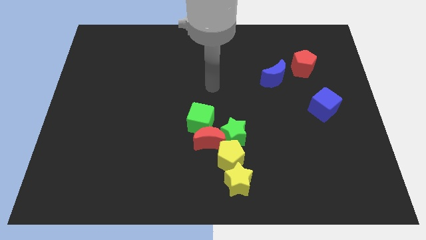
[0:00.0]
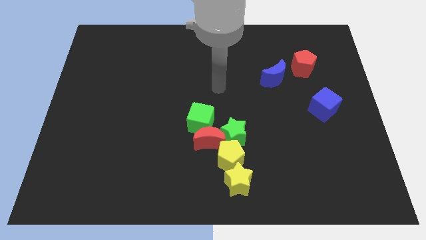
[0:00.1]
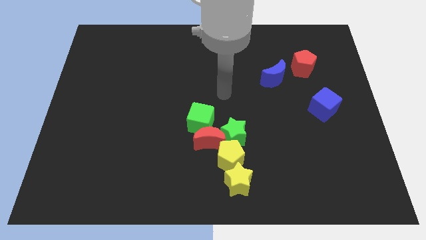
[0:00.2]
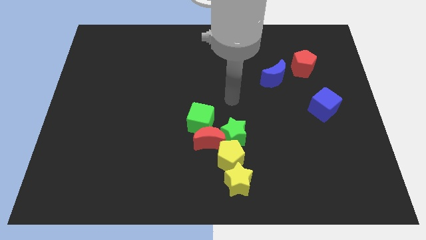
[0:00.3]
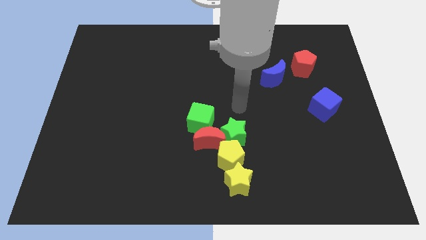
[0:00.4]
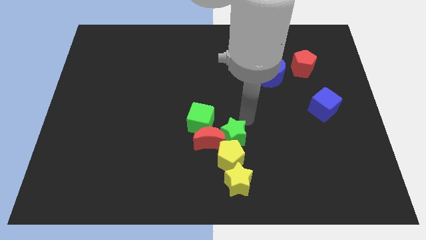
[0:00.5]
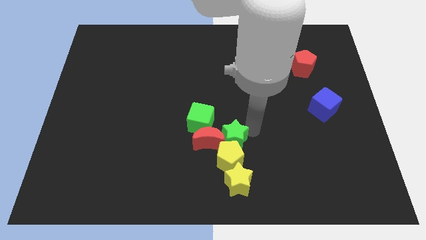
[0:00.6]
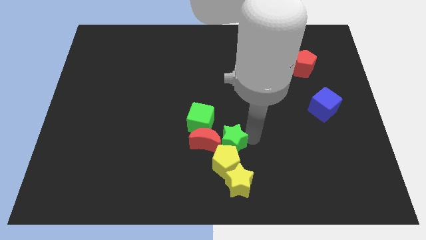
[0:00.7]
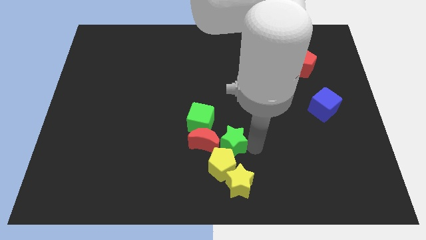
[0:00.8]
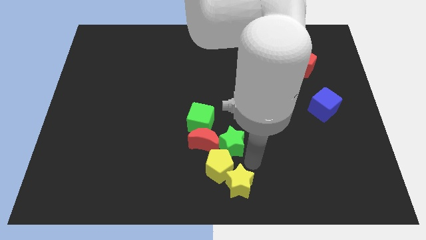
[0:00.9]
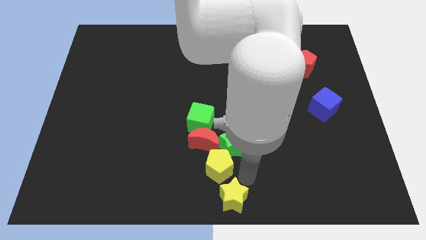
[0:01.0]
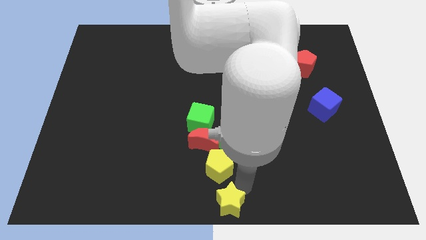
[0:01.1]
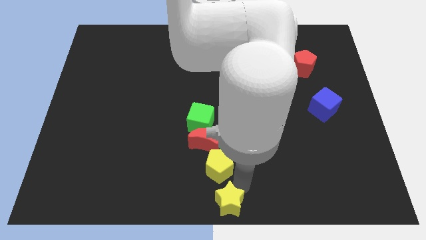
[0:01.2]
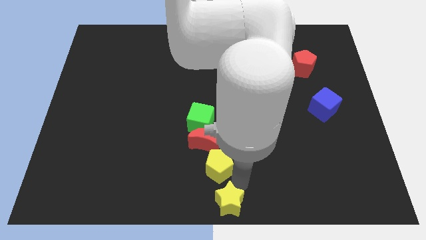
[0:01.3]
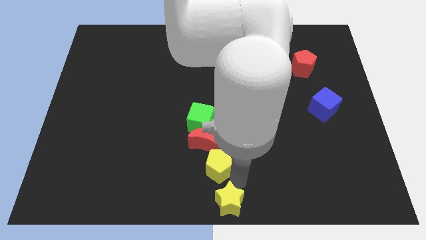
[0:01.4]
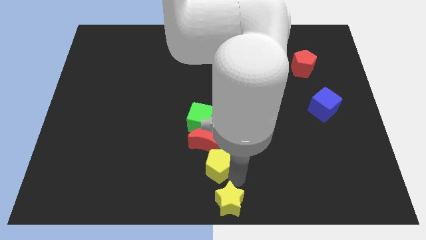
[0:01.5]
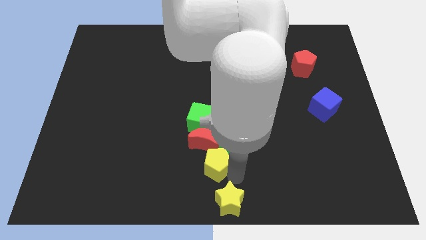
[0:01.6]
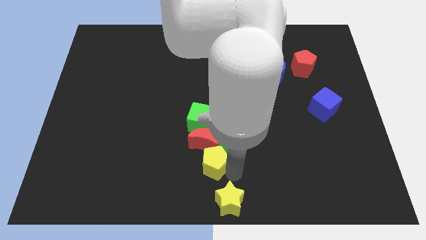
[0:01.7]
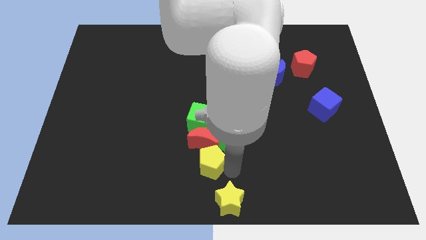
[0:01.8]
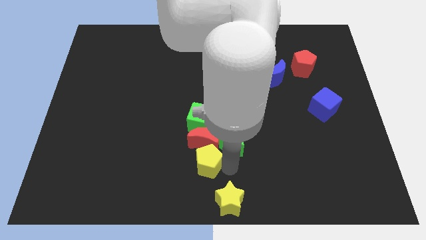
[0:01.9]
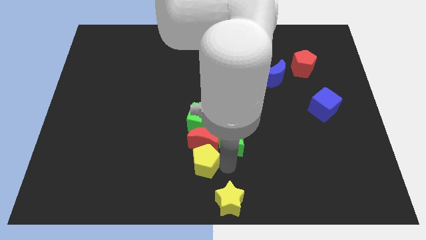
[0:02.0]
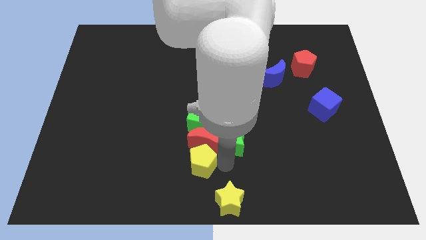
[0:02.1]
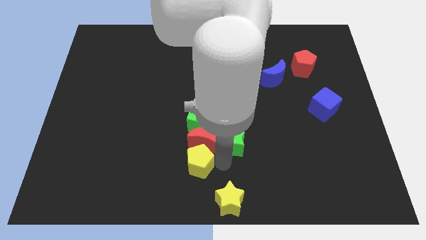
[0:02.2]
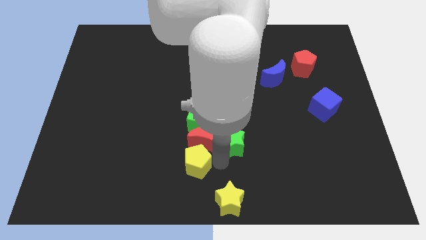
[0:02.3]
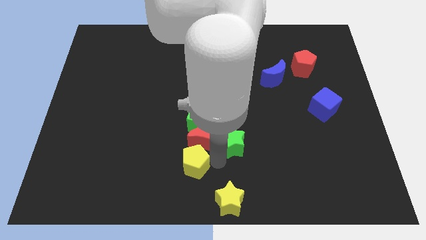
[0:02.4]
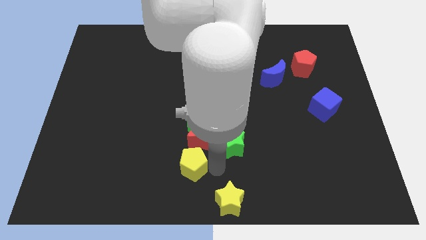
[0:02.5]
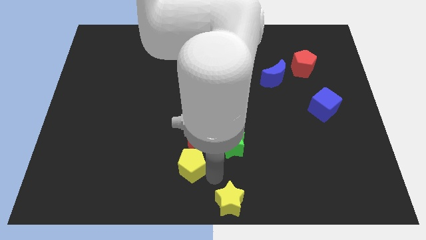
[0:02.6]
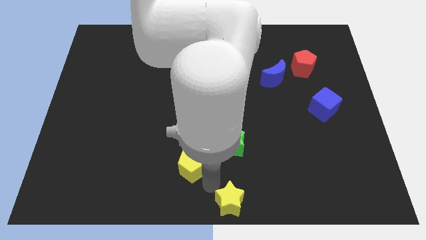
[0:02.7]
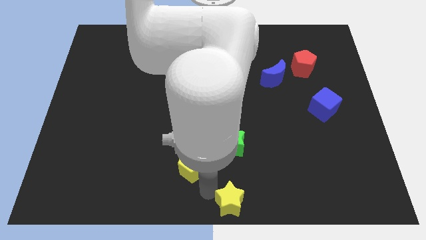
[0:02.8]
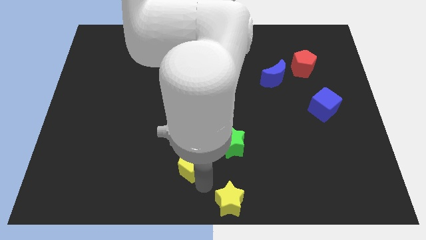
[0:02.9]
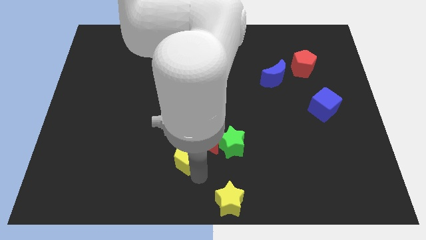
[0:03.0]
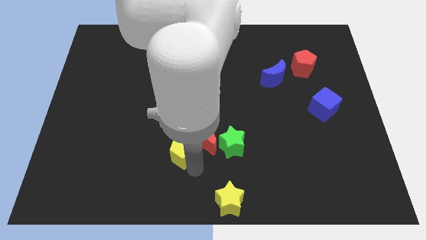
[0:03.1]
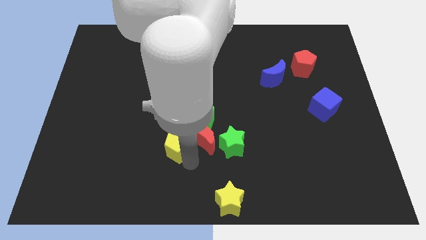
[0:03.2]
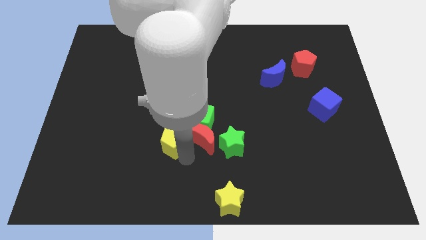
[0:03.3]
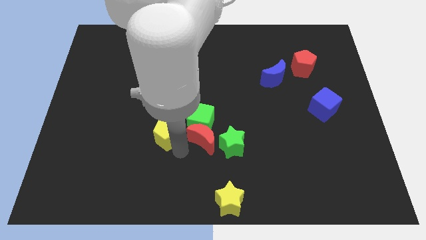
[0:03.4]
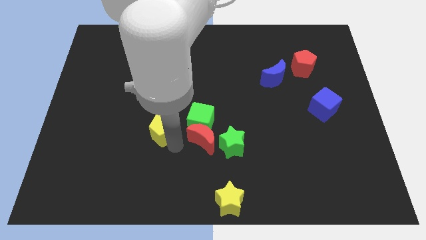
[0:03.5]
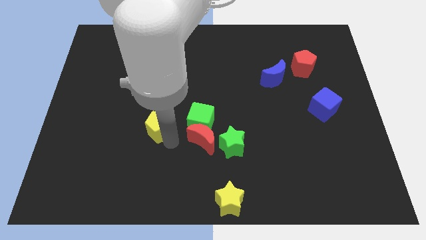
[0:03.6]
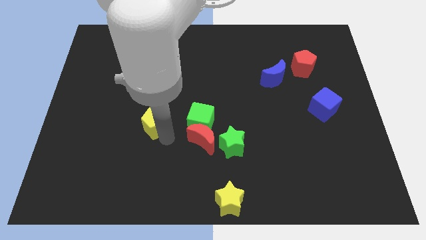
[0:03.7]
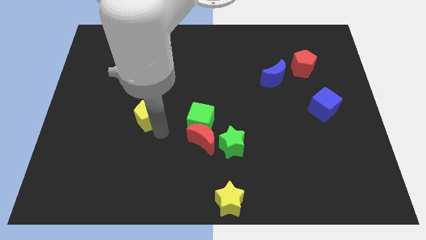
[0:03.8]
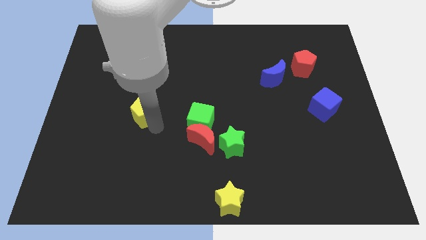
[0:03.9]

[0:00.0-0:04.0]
slide the yellow pentagon diagonally upwards and left

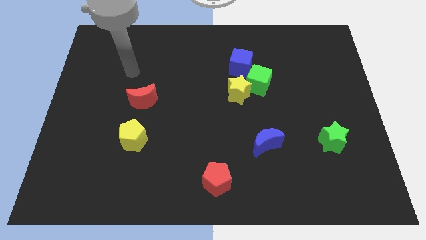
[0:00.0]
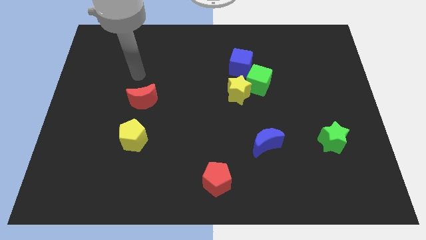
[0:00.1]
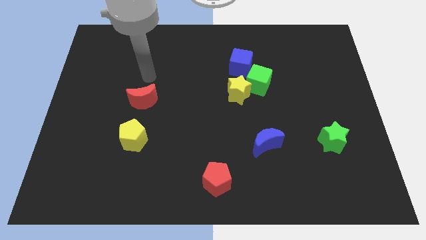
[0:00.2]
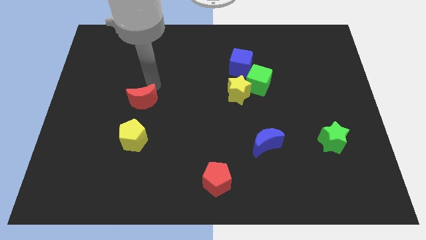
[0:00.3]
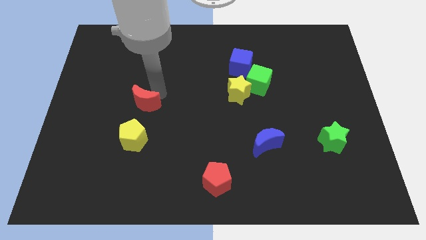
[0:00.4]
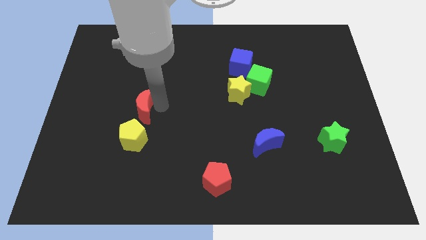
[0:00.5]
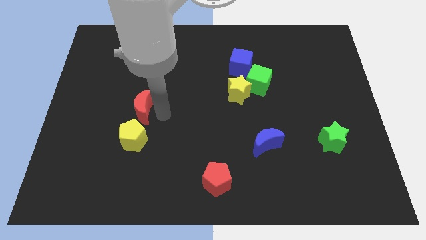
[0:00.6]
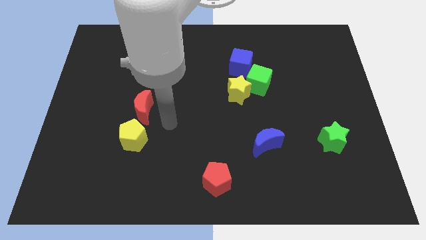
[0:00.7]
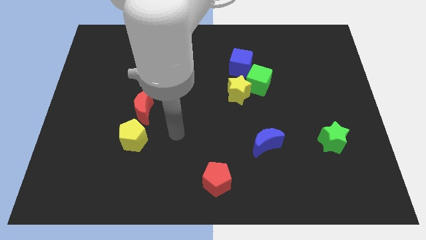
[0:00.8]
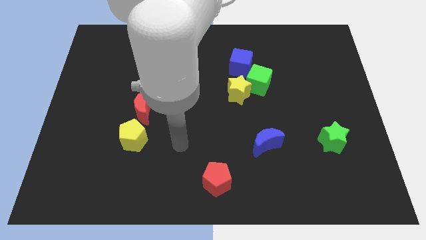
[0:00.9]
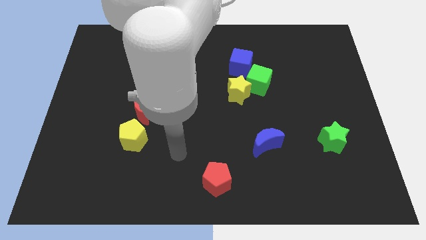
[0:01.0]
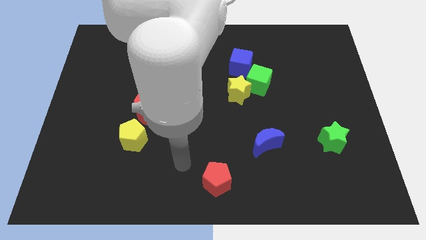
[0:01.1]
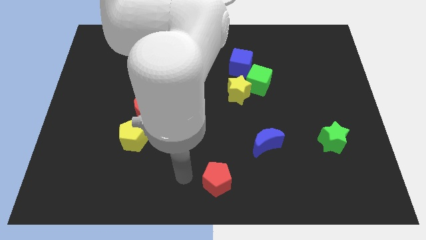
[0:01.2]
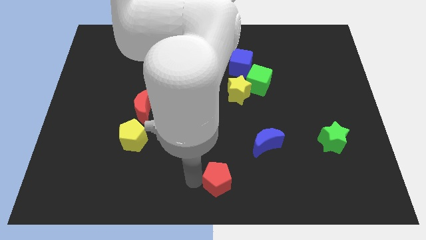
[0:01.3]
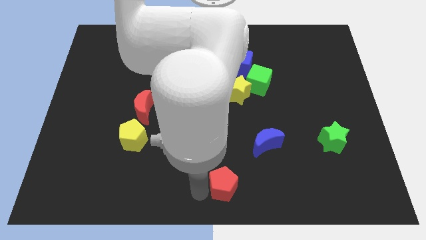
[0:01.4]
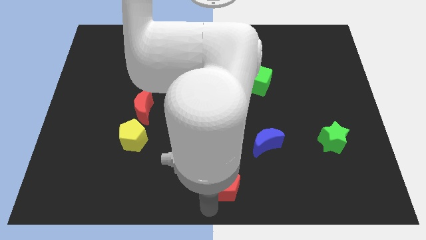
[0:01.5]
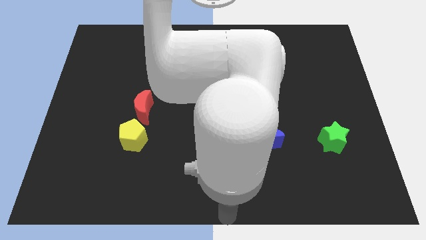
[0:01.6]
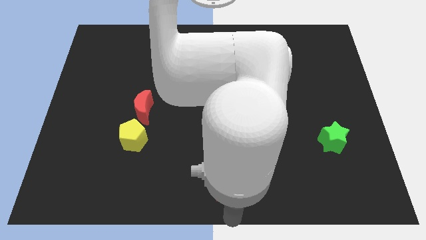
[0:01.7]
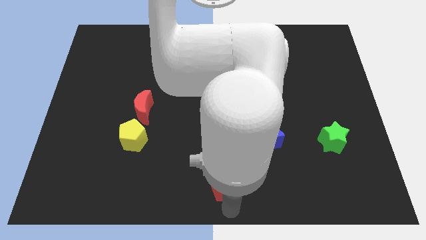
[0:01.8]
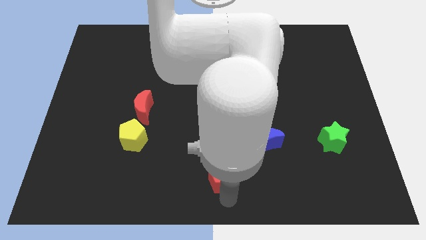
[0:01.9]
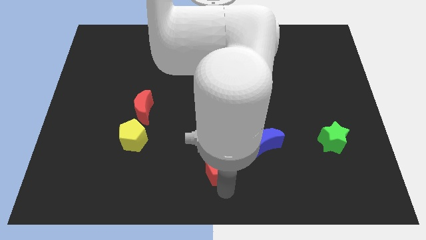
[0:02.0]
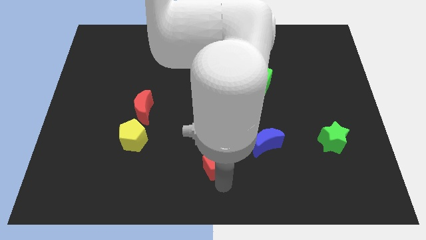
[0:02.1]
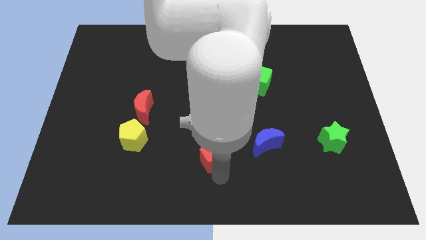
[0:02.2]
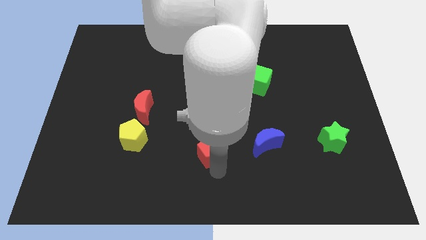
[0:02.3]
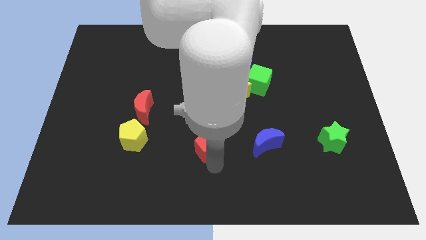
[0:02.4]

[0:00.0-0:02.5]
slide the red pentagon slightly upwards

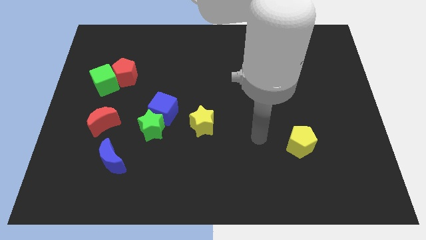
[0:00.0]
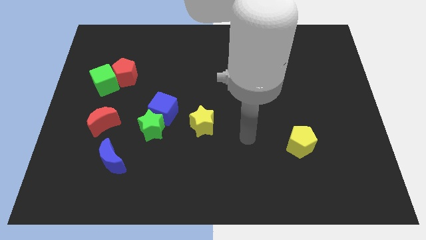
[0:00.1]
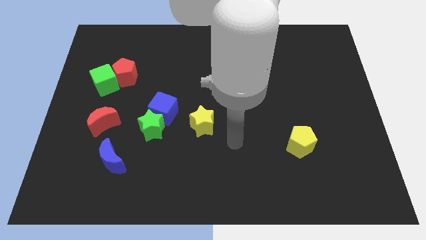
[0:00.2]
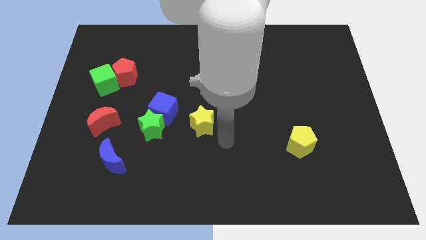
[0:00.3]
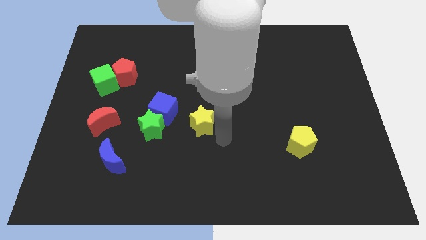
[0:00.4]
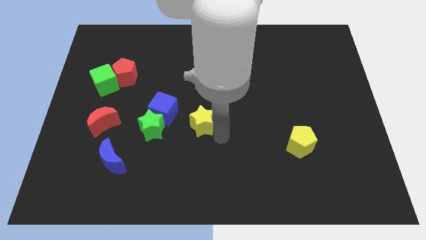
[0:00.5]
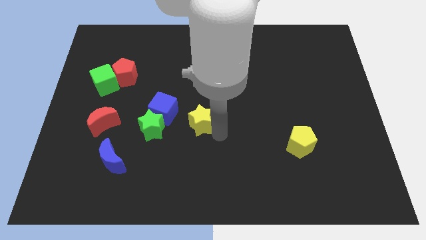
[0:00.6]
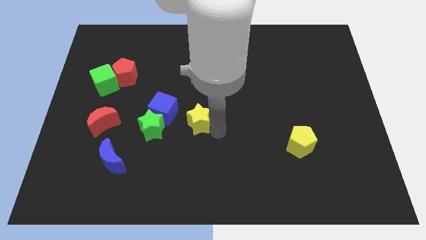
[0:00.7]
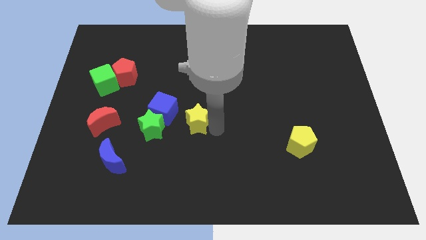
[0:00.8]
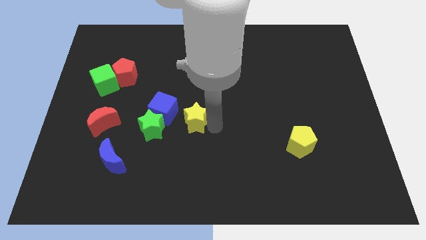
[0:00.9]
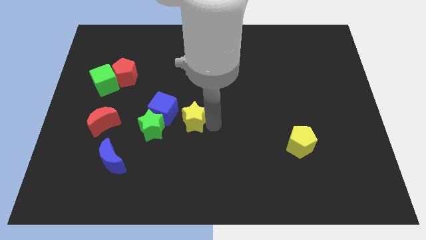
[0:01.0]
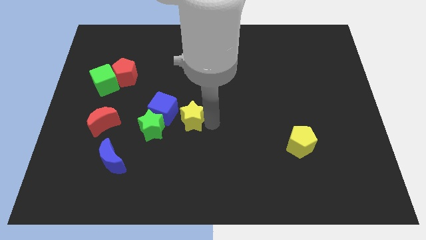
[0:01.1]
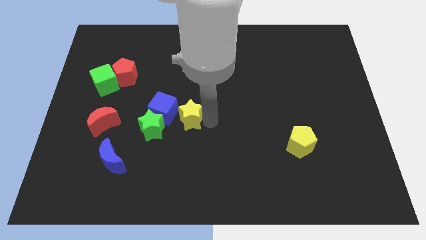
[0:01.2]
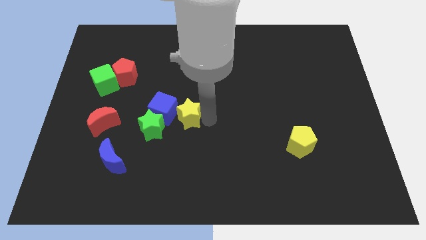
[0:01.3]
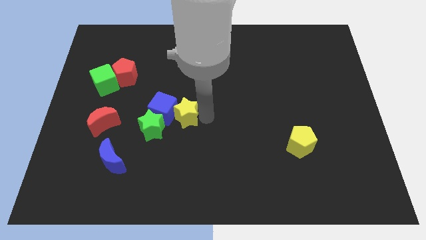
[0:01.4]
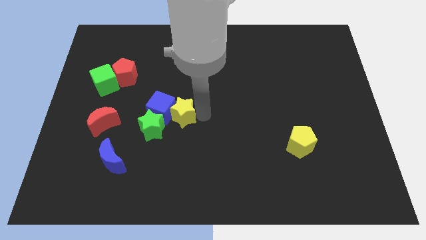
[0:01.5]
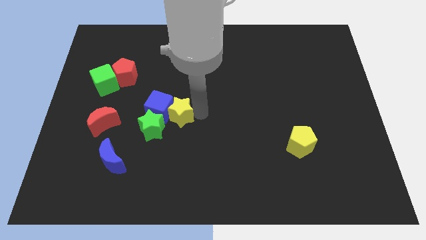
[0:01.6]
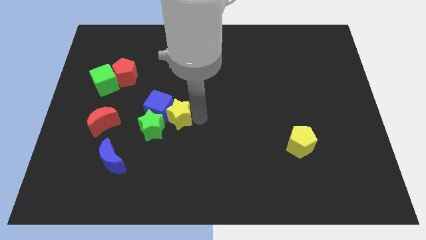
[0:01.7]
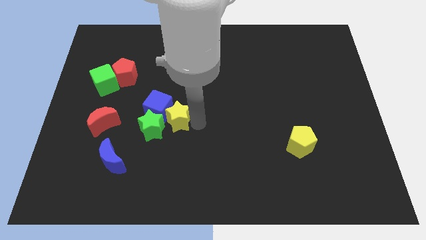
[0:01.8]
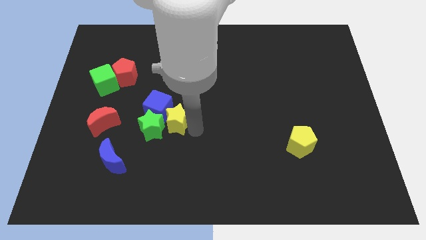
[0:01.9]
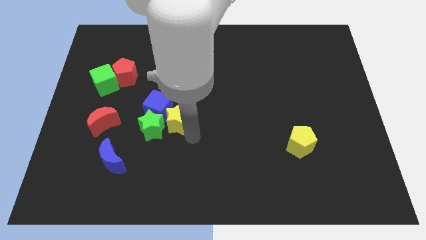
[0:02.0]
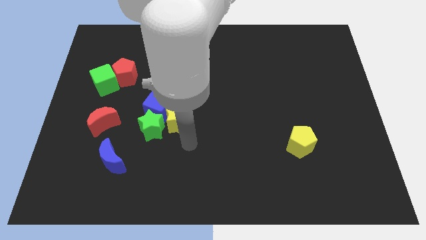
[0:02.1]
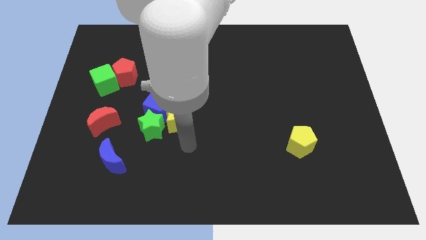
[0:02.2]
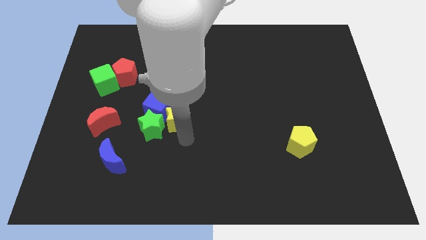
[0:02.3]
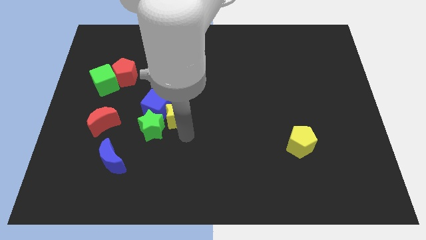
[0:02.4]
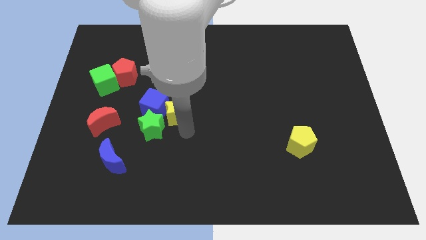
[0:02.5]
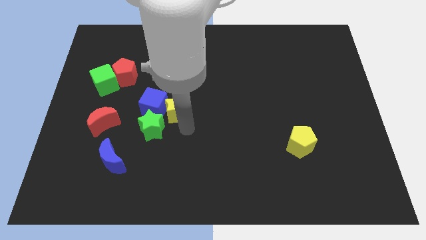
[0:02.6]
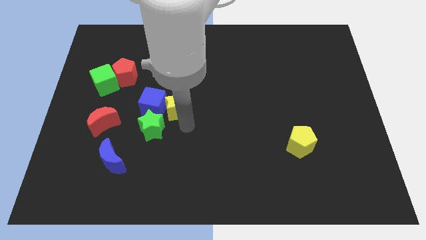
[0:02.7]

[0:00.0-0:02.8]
slightly push the yellow star up and then left
